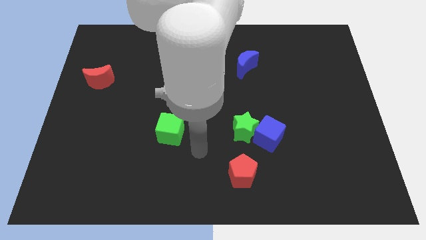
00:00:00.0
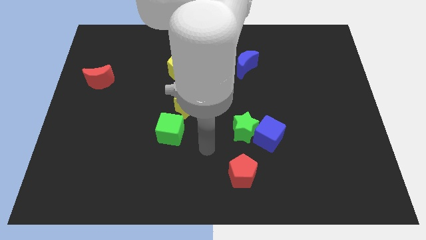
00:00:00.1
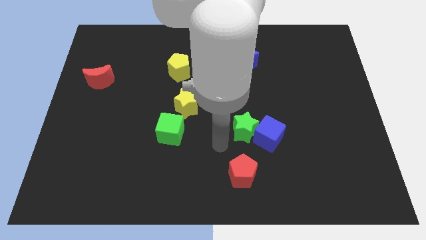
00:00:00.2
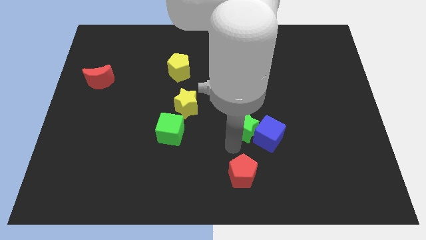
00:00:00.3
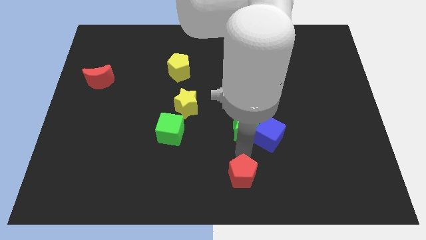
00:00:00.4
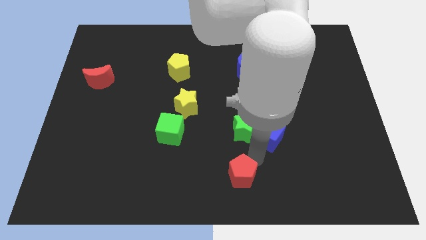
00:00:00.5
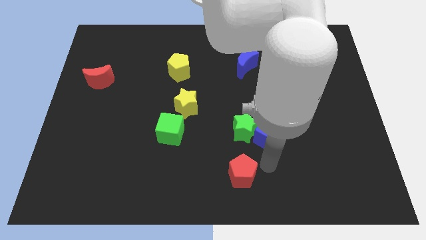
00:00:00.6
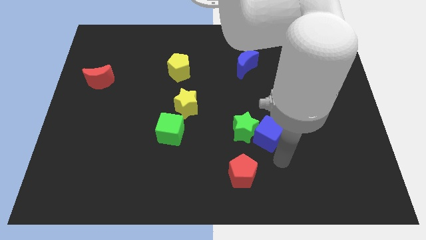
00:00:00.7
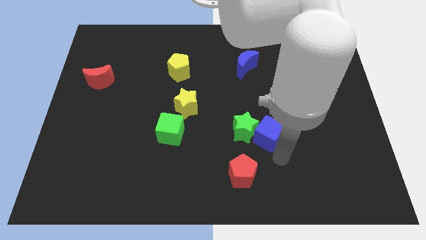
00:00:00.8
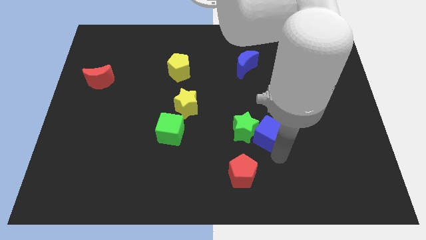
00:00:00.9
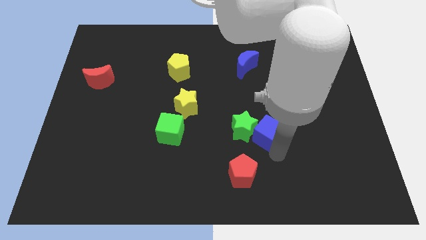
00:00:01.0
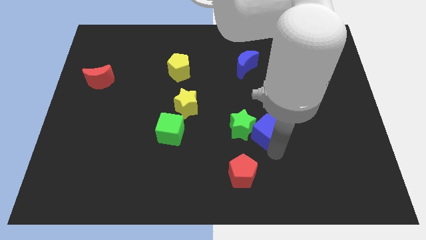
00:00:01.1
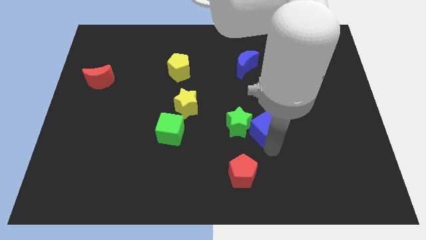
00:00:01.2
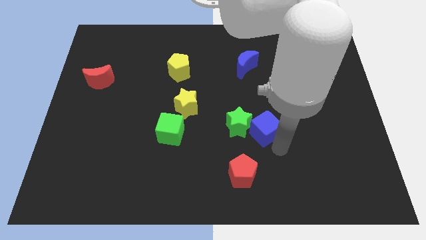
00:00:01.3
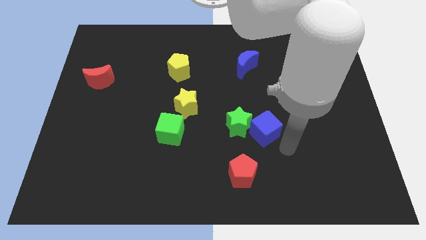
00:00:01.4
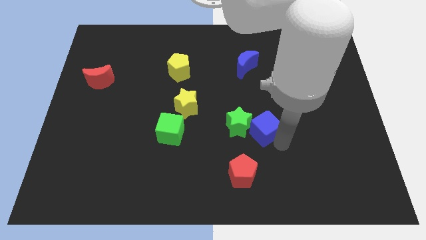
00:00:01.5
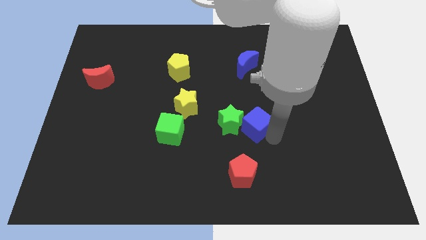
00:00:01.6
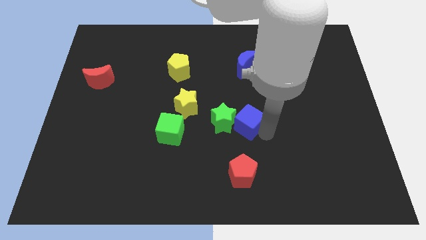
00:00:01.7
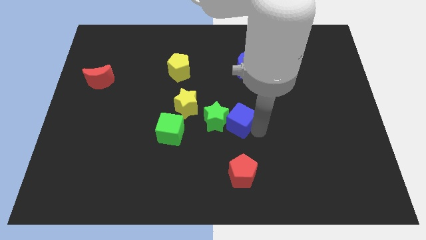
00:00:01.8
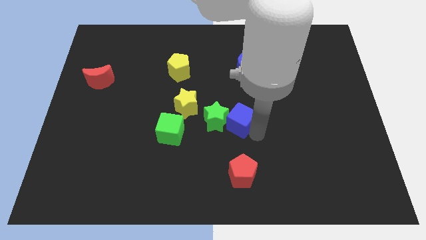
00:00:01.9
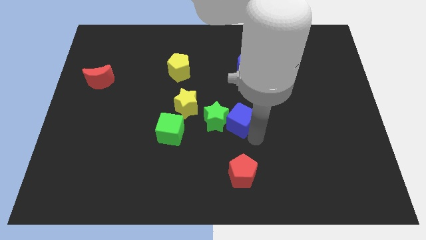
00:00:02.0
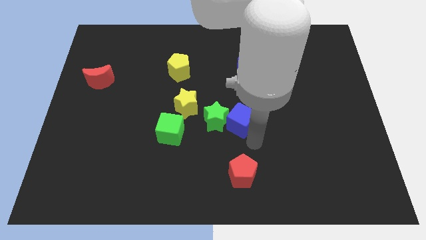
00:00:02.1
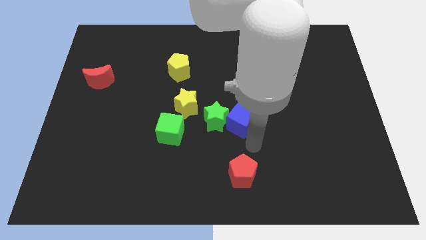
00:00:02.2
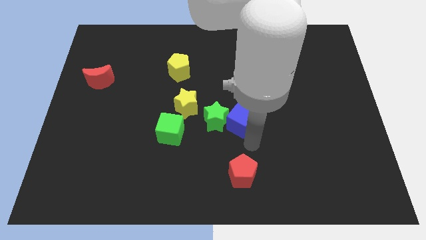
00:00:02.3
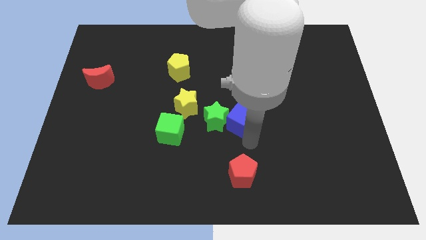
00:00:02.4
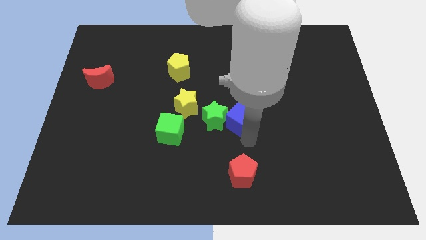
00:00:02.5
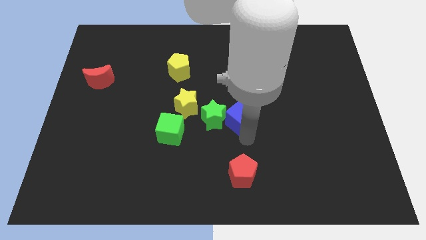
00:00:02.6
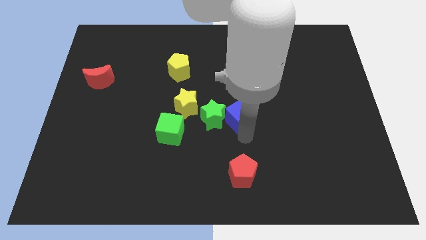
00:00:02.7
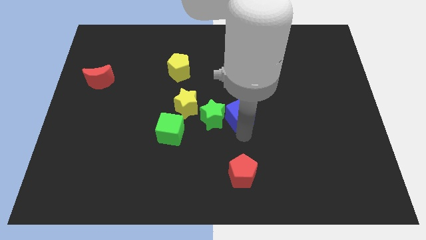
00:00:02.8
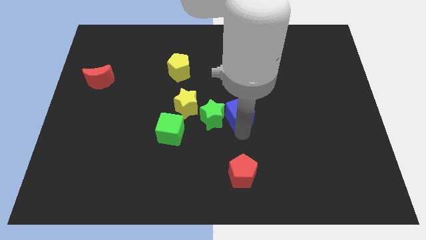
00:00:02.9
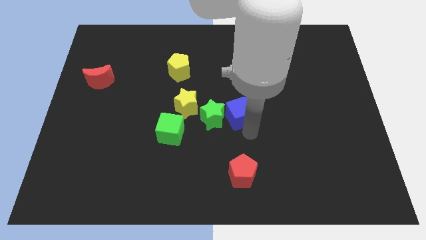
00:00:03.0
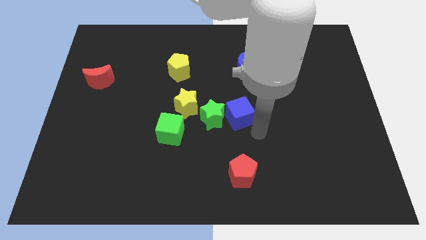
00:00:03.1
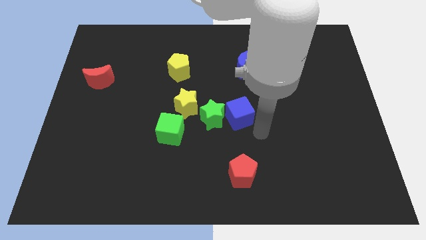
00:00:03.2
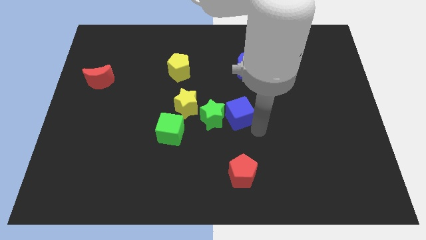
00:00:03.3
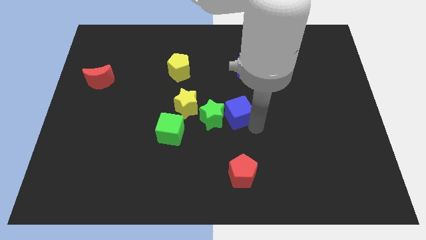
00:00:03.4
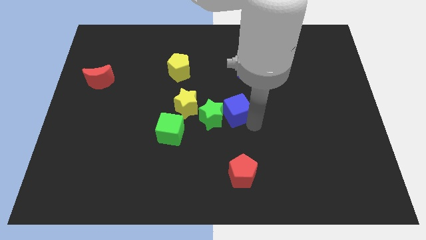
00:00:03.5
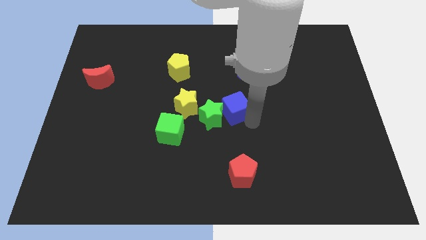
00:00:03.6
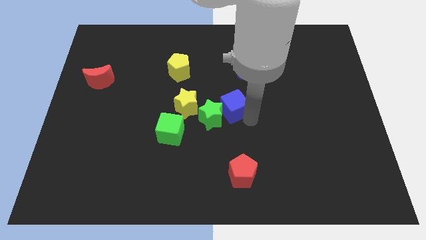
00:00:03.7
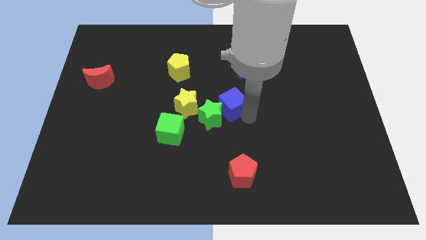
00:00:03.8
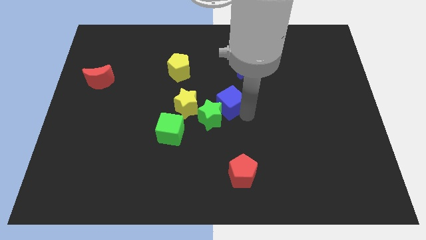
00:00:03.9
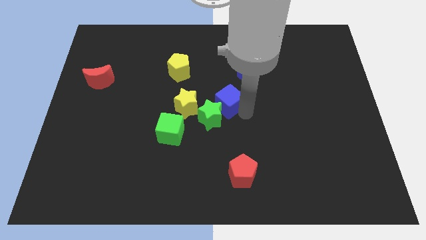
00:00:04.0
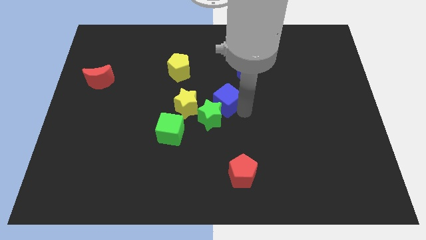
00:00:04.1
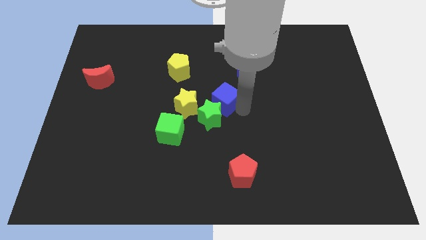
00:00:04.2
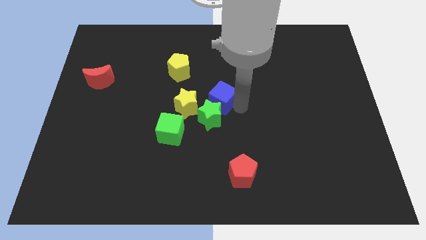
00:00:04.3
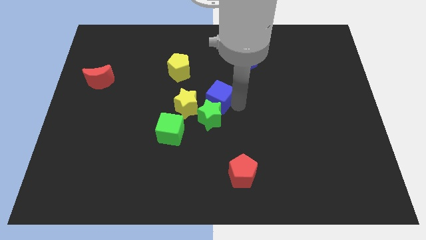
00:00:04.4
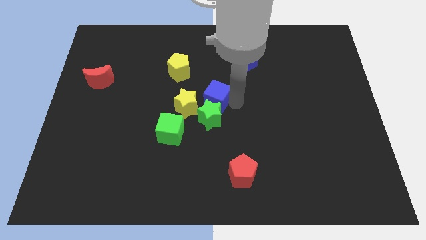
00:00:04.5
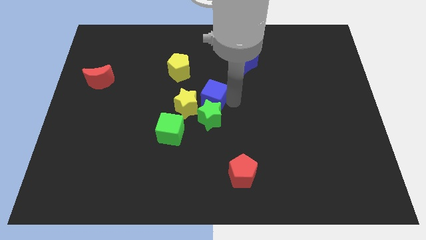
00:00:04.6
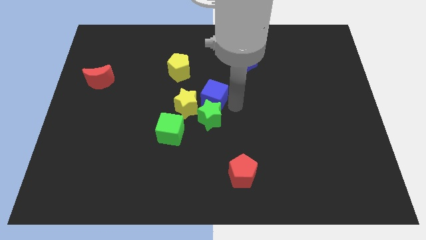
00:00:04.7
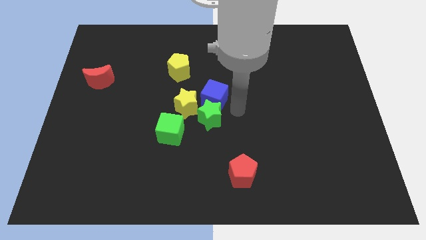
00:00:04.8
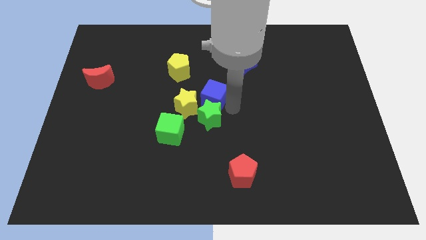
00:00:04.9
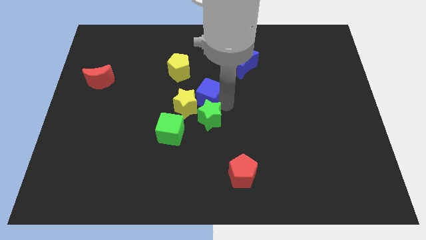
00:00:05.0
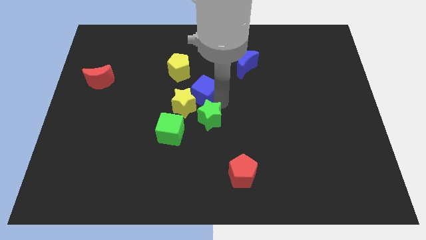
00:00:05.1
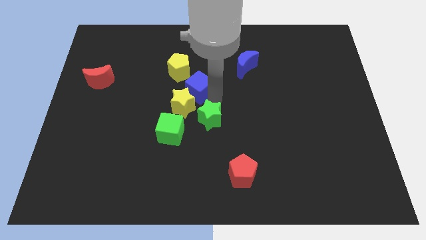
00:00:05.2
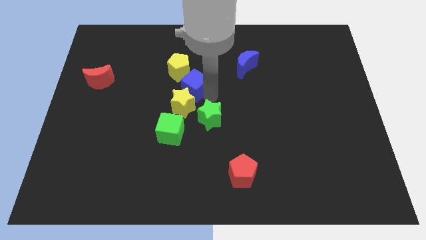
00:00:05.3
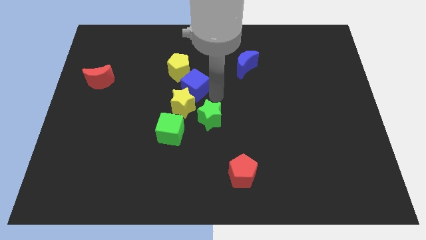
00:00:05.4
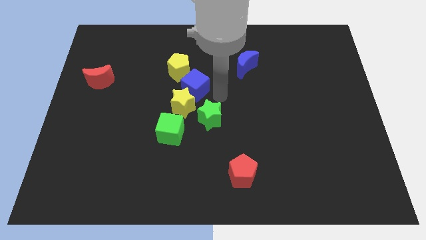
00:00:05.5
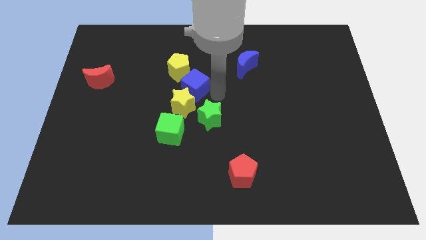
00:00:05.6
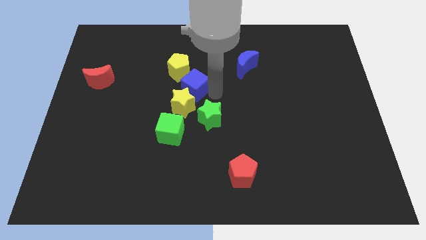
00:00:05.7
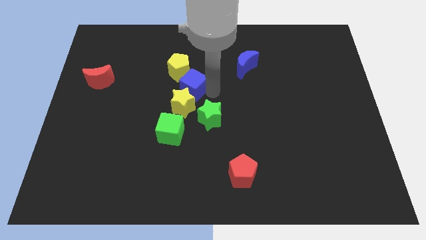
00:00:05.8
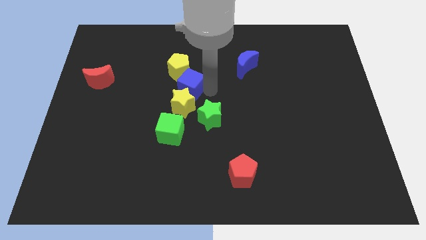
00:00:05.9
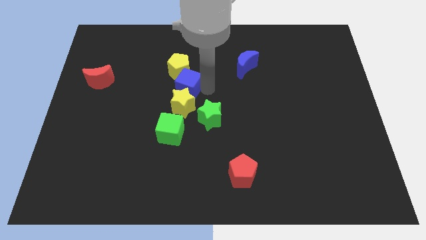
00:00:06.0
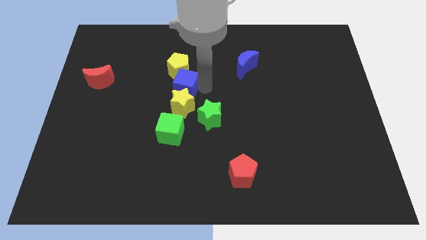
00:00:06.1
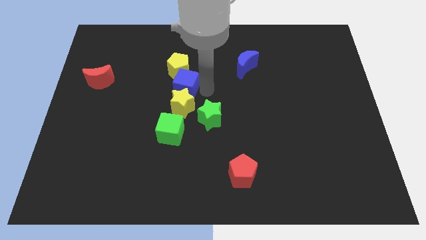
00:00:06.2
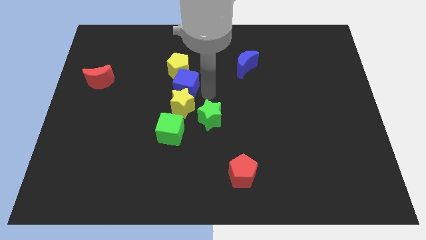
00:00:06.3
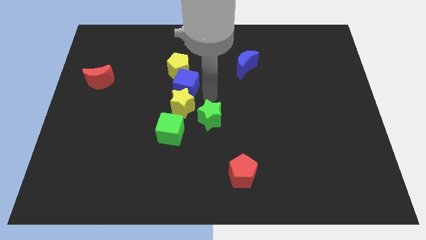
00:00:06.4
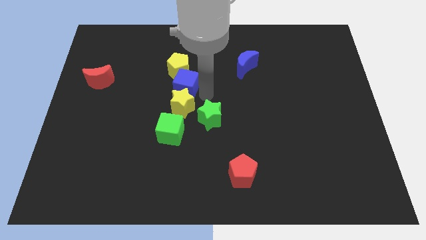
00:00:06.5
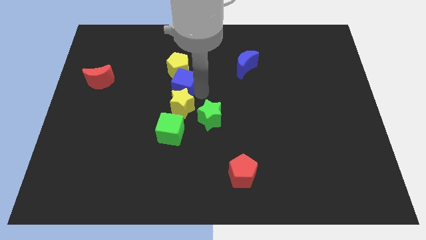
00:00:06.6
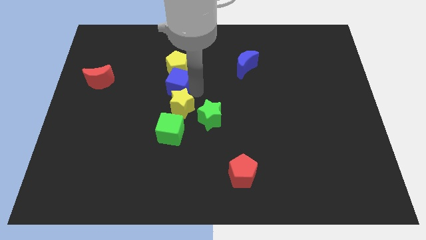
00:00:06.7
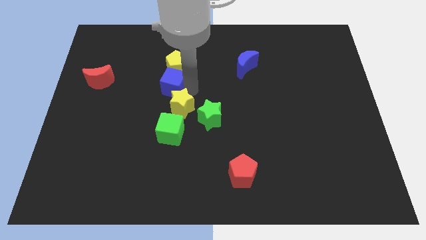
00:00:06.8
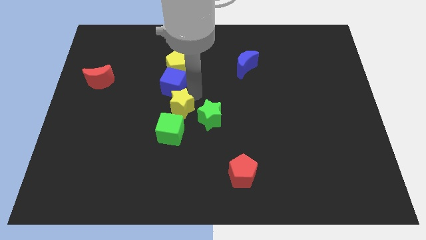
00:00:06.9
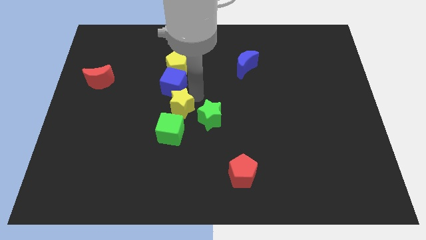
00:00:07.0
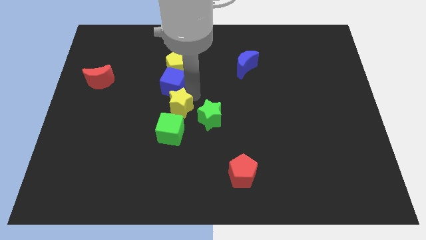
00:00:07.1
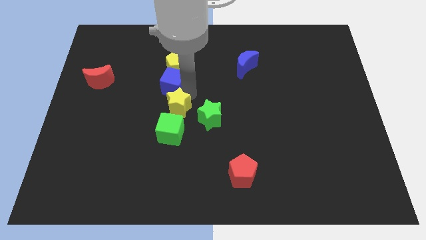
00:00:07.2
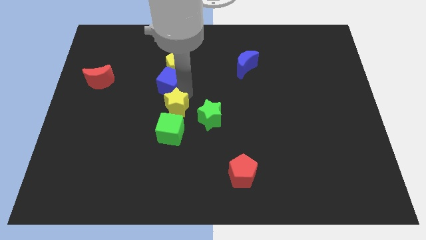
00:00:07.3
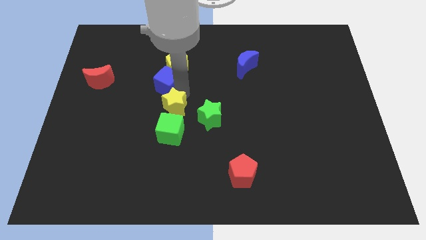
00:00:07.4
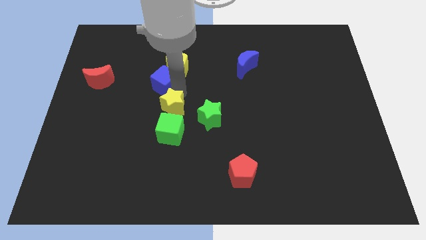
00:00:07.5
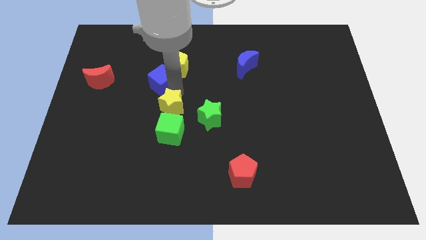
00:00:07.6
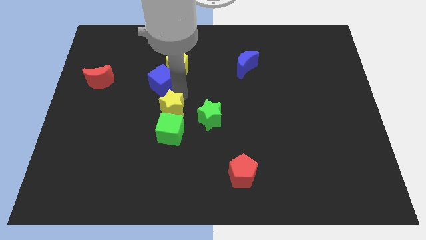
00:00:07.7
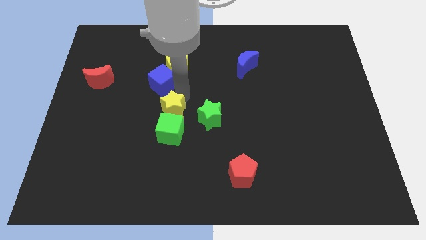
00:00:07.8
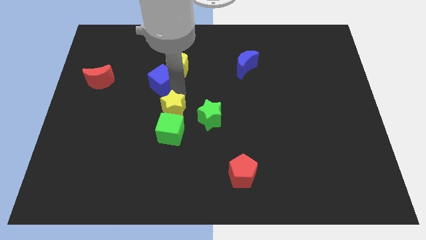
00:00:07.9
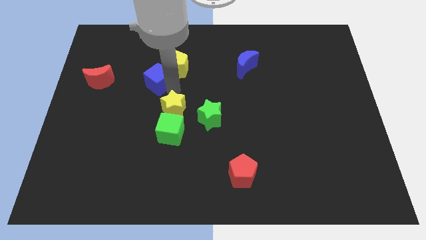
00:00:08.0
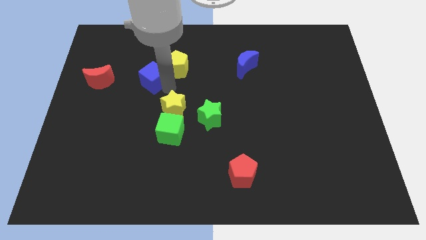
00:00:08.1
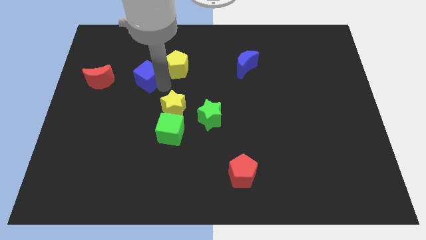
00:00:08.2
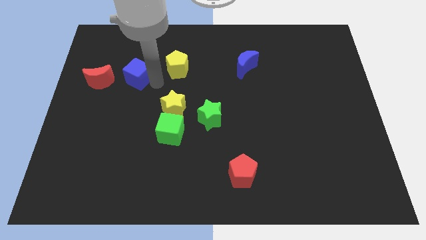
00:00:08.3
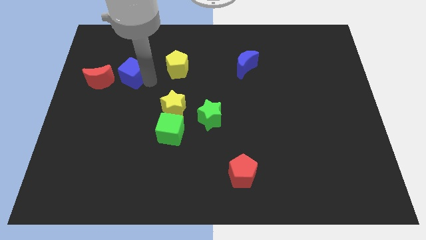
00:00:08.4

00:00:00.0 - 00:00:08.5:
put the blue cube to the top right of the red moon
